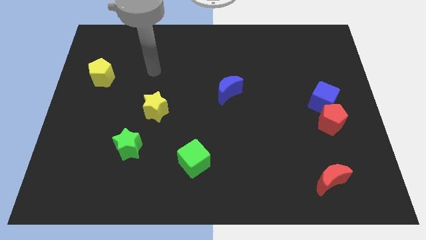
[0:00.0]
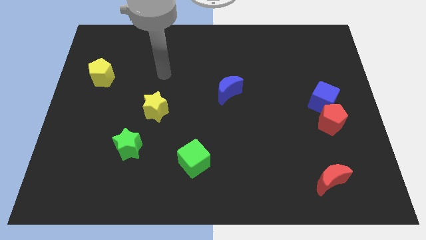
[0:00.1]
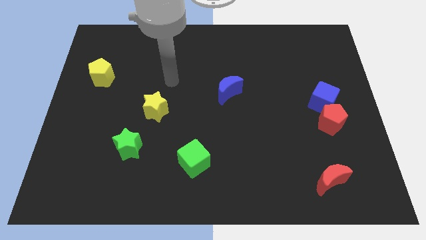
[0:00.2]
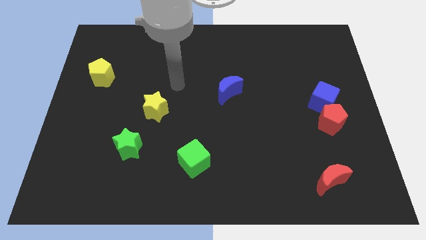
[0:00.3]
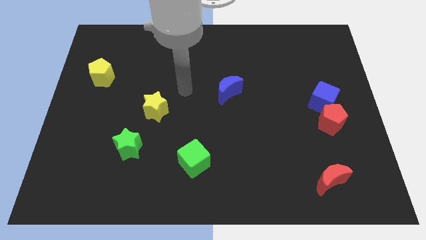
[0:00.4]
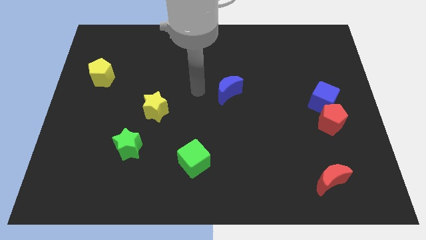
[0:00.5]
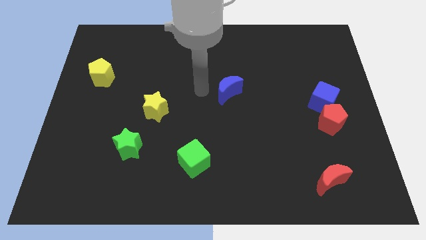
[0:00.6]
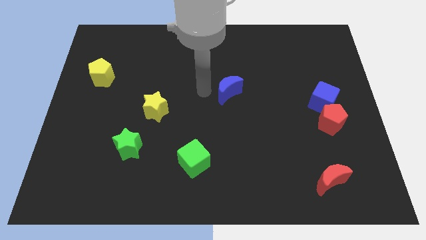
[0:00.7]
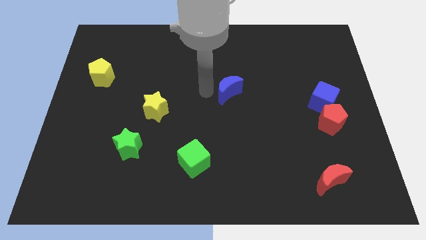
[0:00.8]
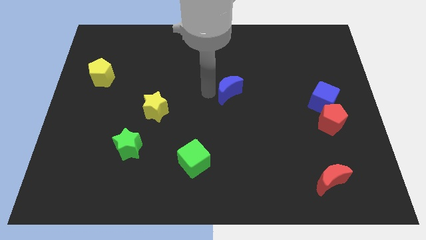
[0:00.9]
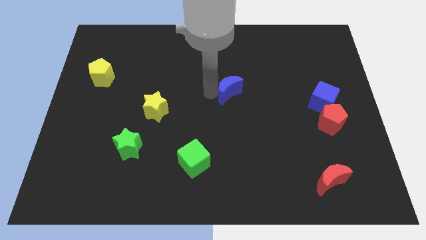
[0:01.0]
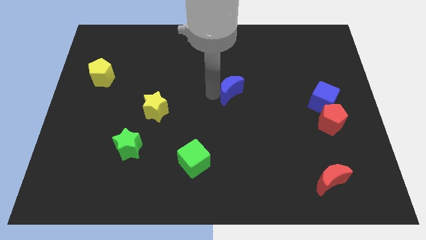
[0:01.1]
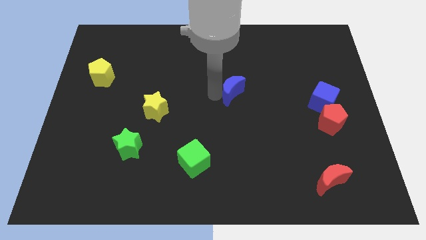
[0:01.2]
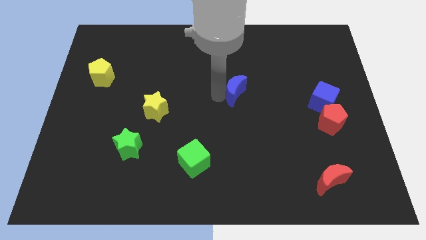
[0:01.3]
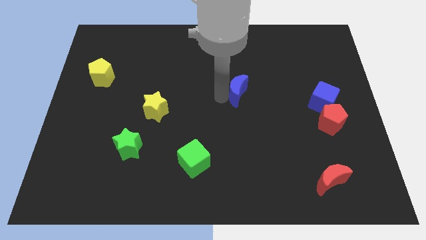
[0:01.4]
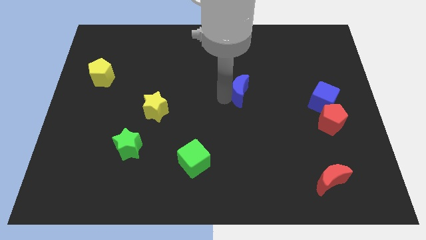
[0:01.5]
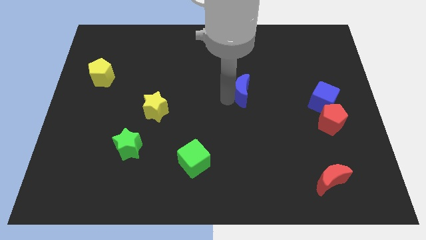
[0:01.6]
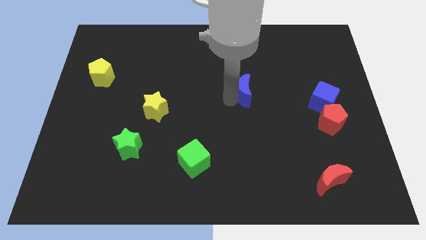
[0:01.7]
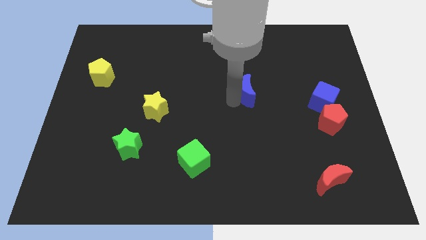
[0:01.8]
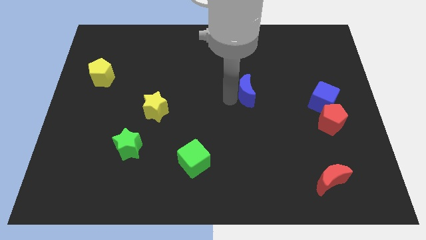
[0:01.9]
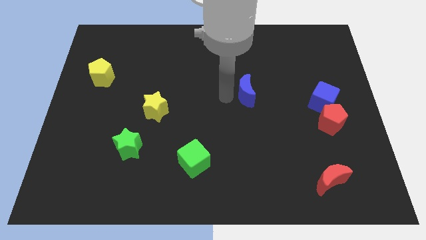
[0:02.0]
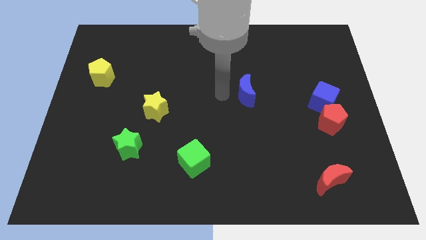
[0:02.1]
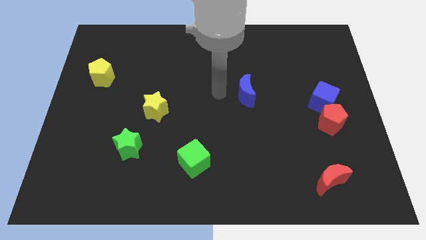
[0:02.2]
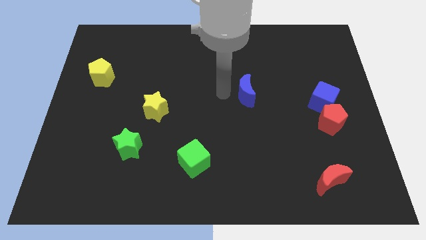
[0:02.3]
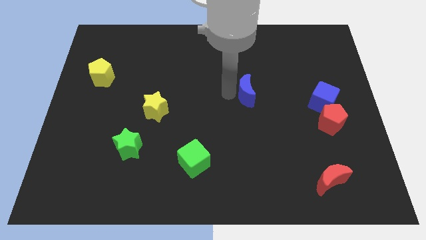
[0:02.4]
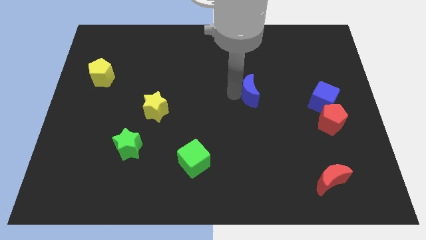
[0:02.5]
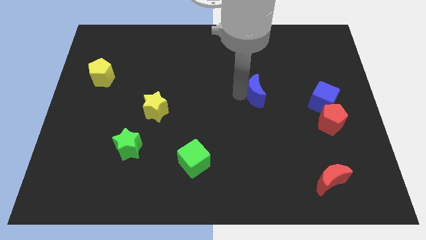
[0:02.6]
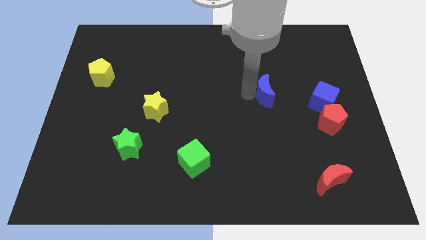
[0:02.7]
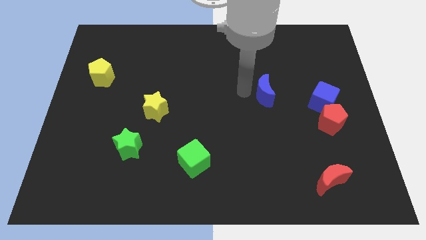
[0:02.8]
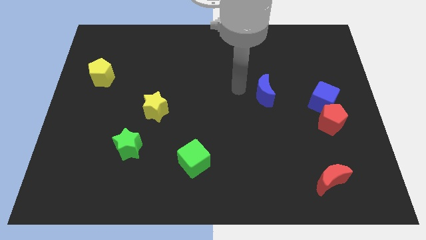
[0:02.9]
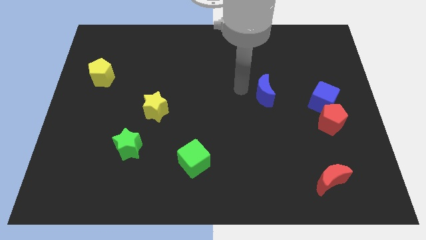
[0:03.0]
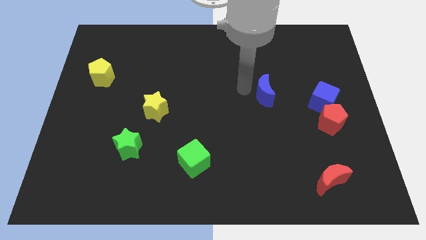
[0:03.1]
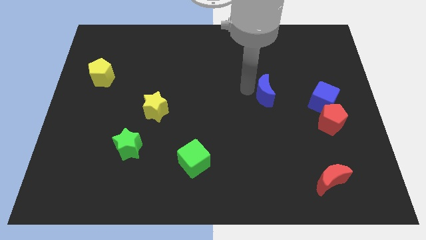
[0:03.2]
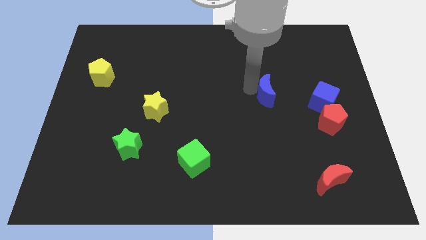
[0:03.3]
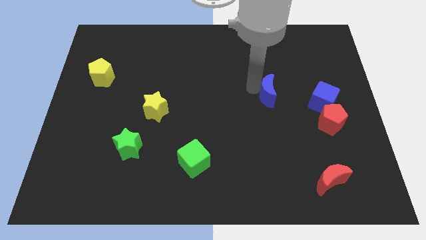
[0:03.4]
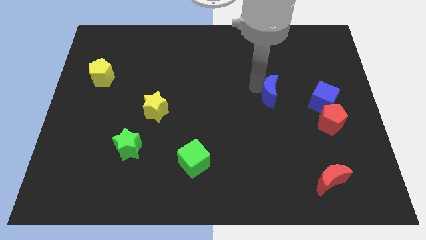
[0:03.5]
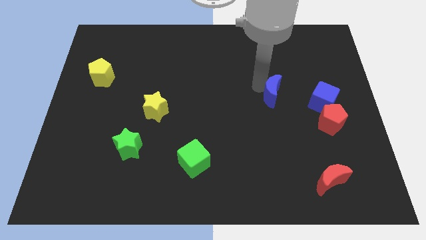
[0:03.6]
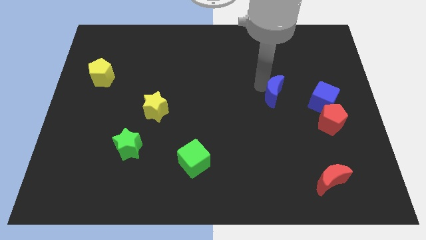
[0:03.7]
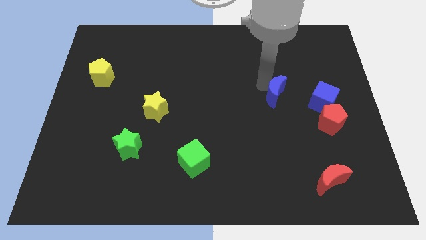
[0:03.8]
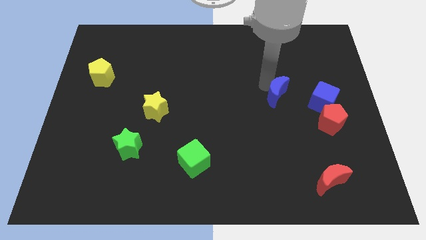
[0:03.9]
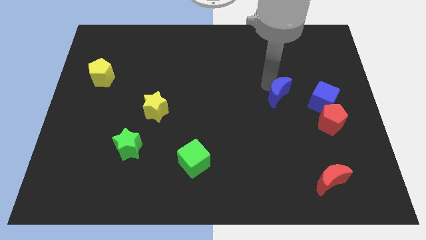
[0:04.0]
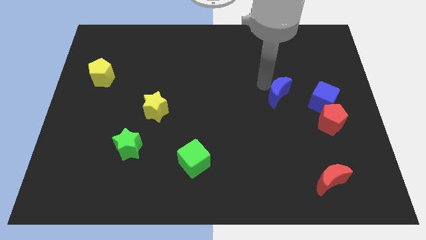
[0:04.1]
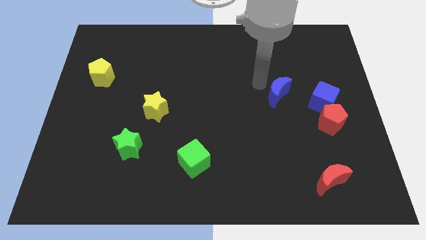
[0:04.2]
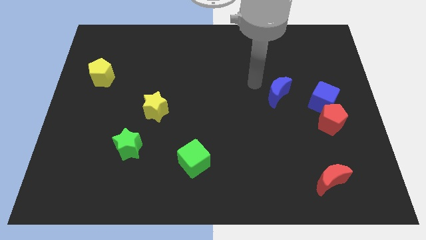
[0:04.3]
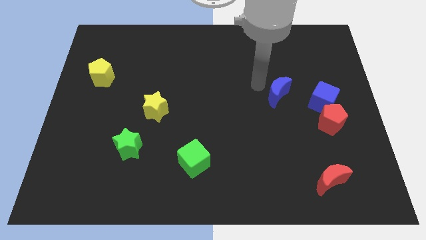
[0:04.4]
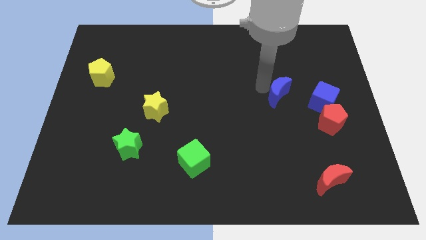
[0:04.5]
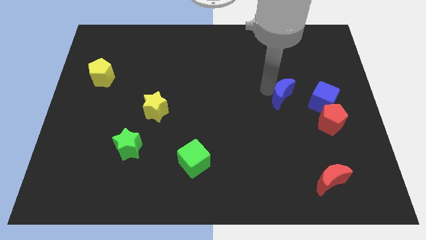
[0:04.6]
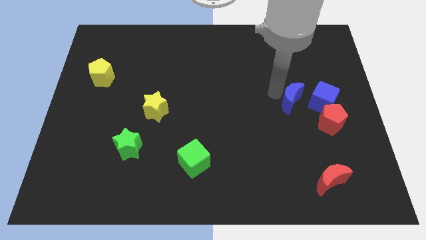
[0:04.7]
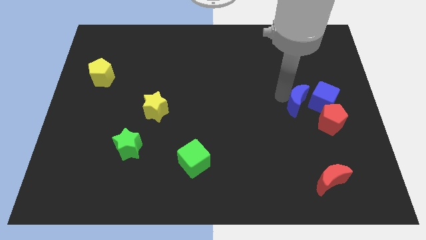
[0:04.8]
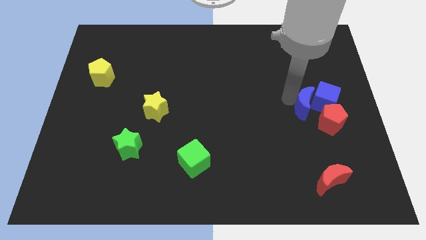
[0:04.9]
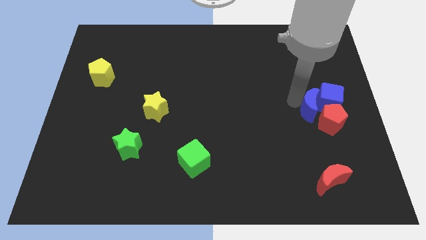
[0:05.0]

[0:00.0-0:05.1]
move the blue moon next to the red pentagon

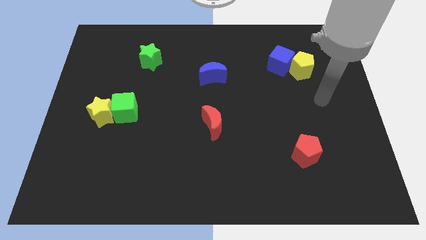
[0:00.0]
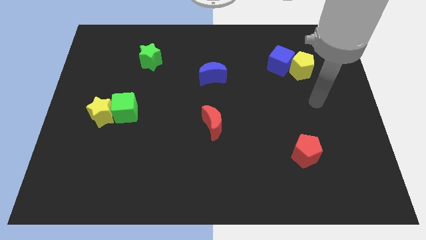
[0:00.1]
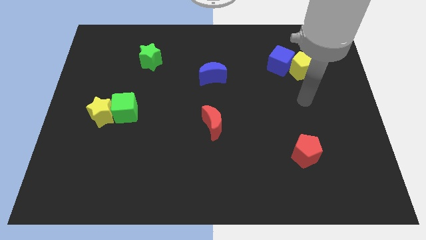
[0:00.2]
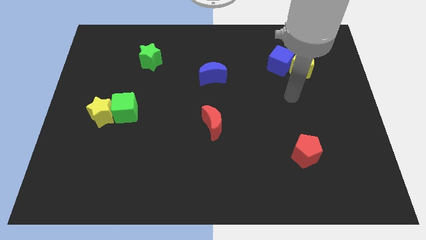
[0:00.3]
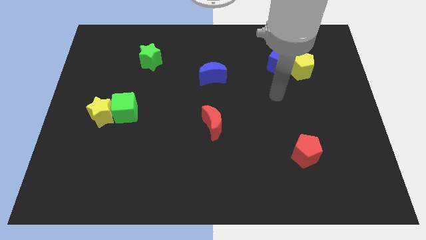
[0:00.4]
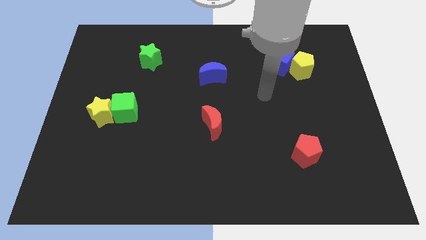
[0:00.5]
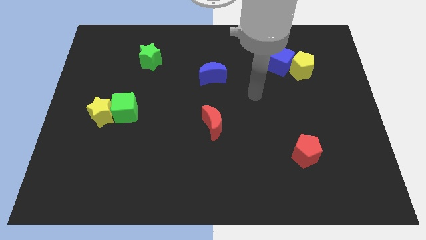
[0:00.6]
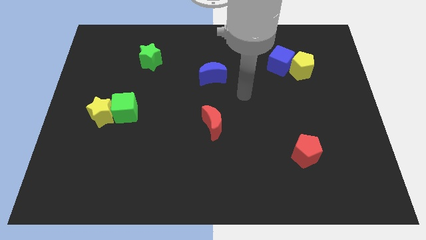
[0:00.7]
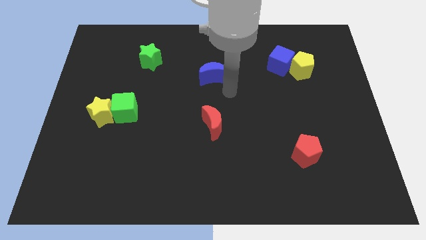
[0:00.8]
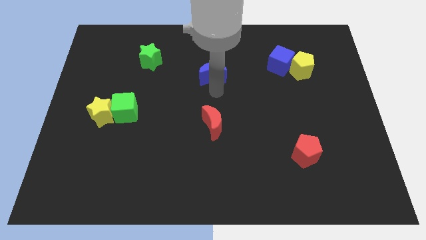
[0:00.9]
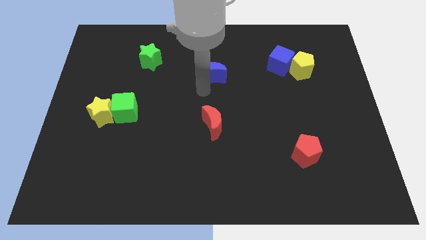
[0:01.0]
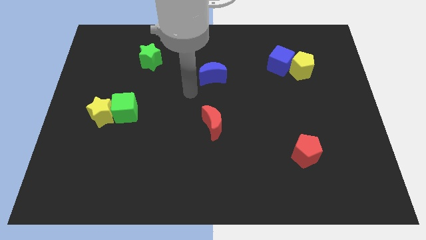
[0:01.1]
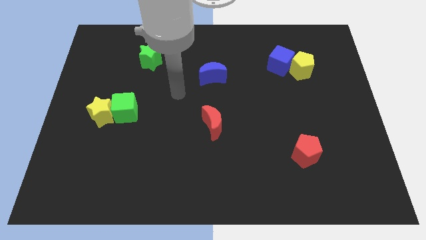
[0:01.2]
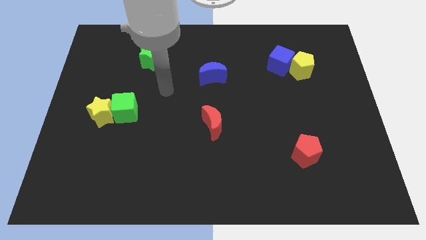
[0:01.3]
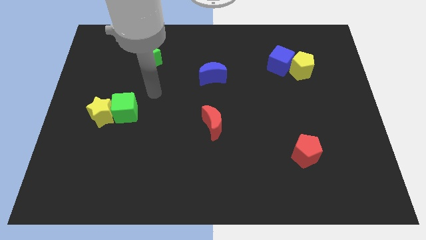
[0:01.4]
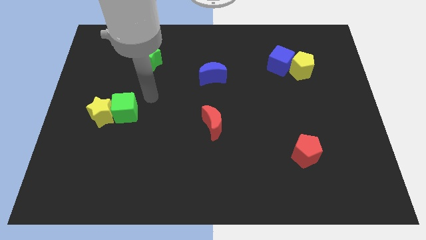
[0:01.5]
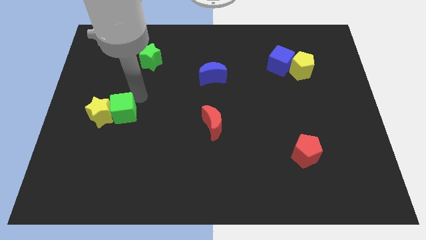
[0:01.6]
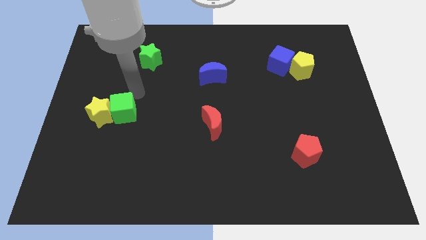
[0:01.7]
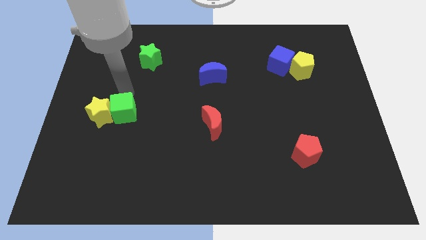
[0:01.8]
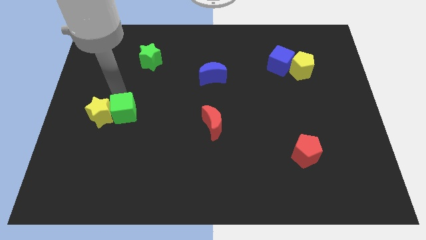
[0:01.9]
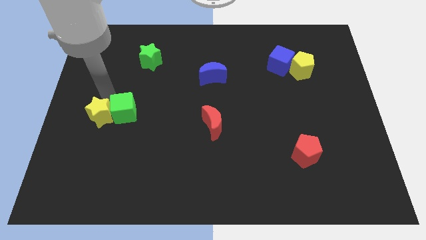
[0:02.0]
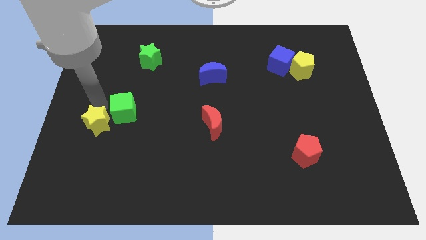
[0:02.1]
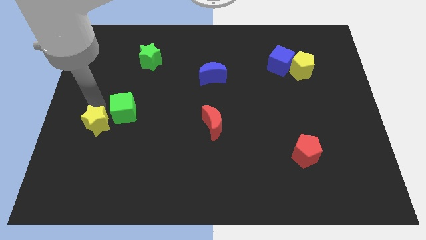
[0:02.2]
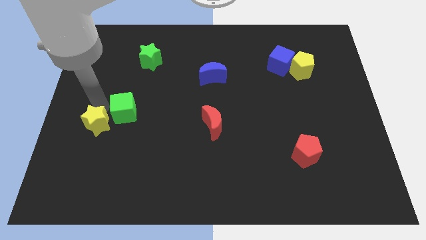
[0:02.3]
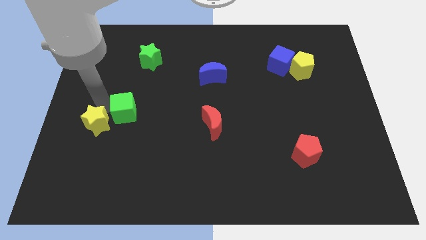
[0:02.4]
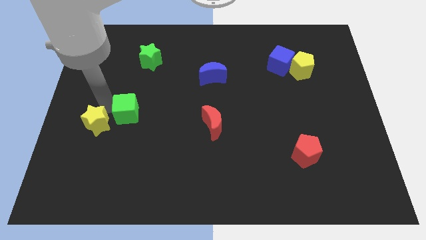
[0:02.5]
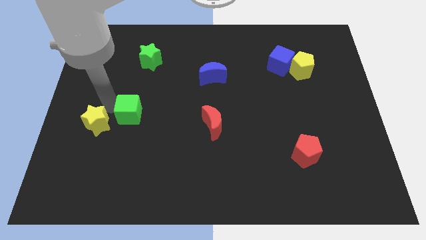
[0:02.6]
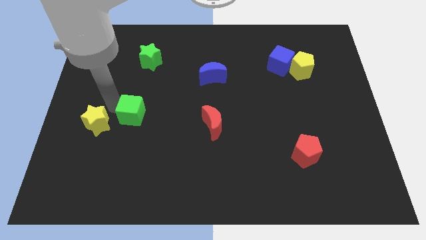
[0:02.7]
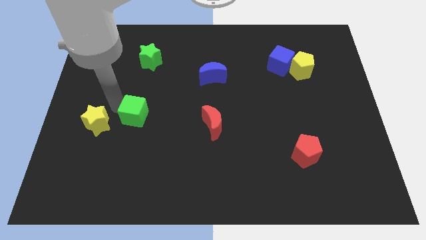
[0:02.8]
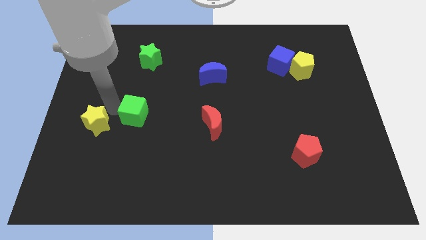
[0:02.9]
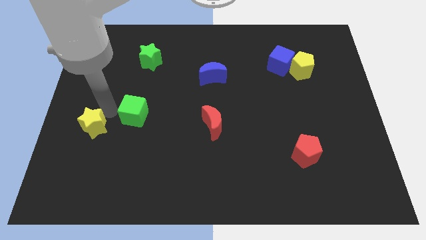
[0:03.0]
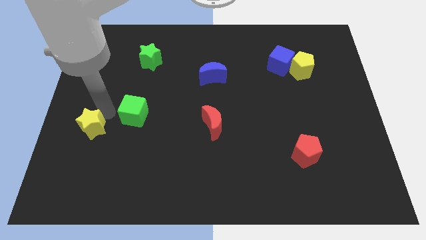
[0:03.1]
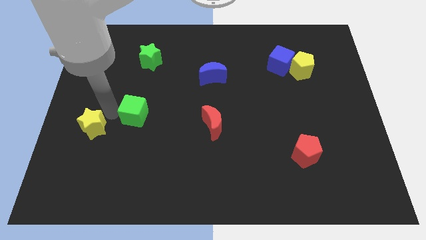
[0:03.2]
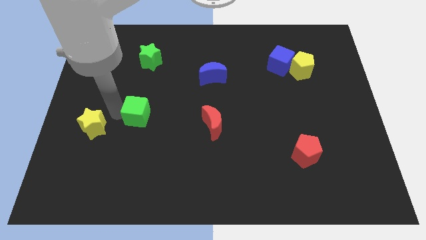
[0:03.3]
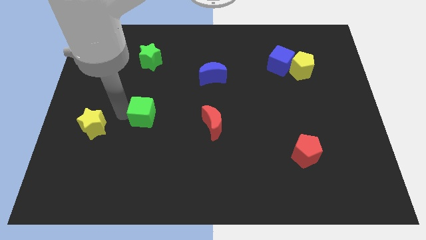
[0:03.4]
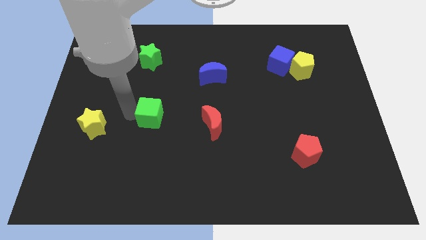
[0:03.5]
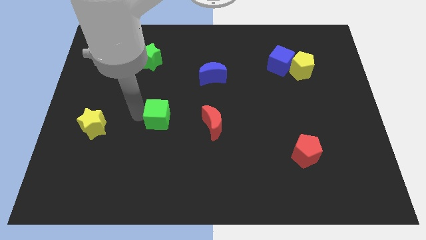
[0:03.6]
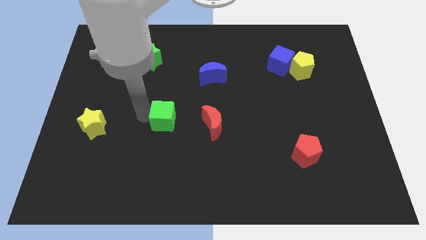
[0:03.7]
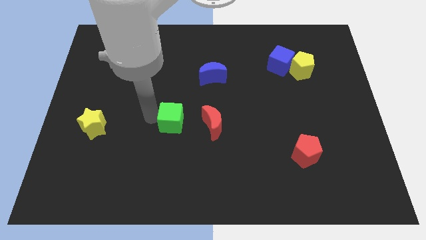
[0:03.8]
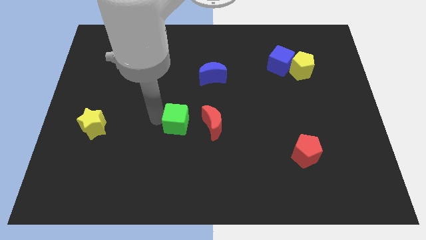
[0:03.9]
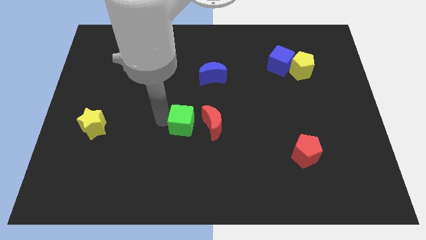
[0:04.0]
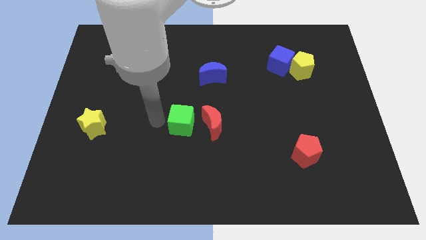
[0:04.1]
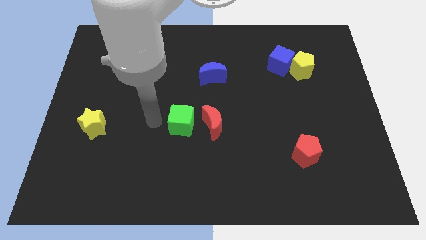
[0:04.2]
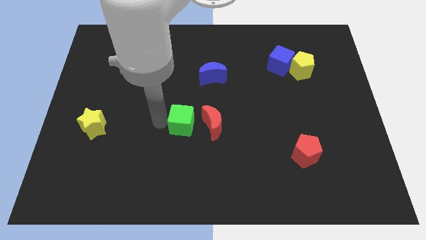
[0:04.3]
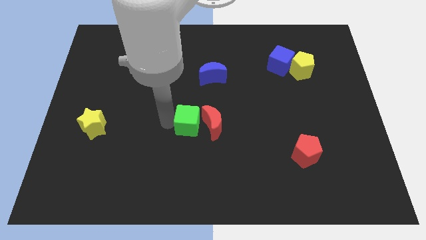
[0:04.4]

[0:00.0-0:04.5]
move the green cube towards the red moon
